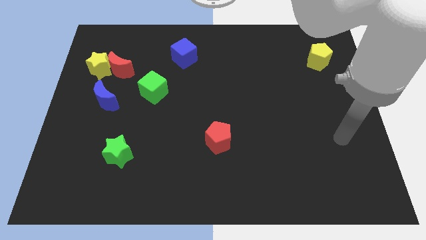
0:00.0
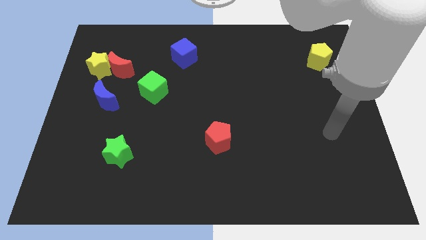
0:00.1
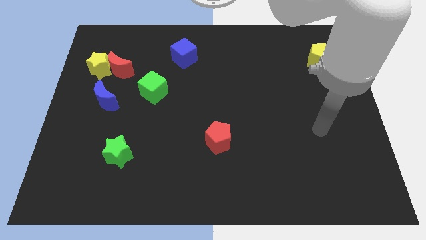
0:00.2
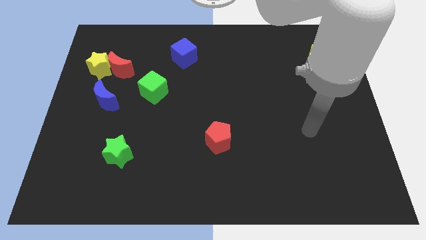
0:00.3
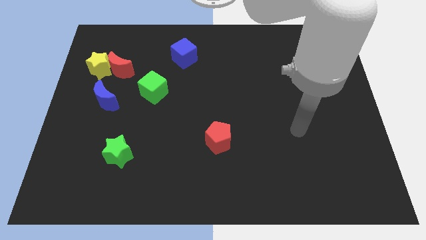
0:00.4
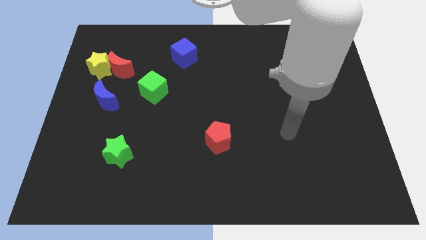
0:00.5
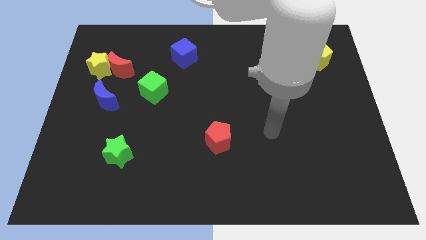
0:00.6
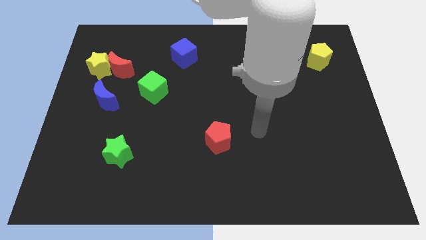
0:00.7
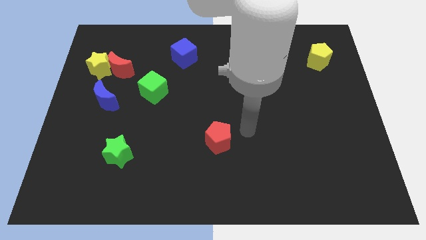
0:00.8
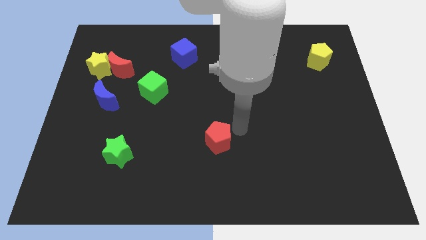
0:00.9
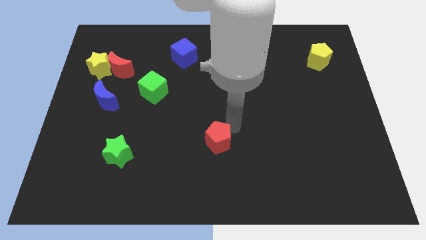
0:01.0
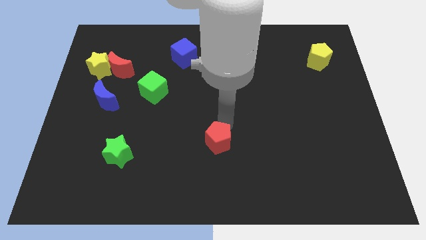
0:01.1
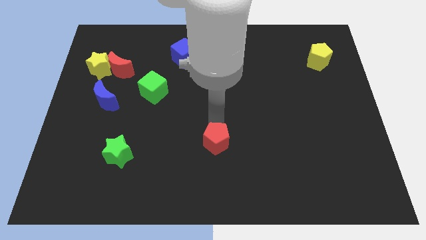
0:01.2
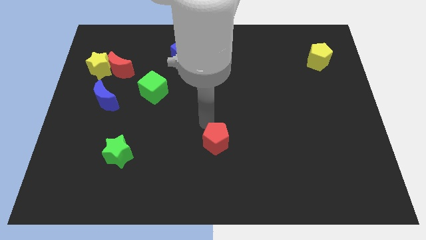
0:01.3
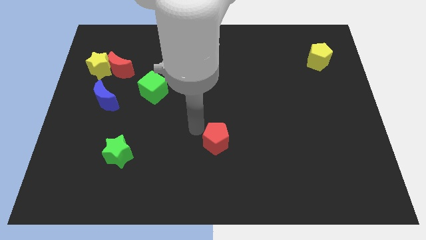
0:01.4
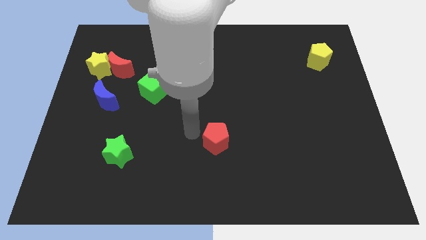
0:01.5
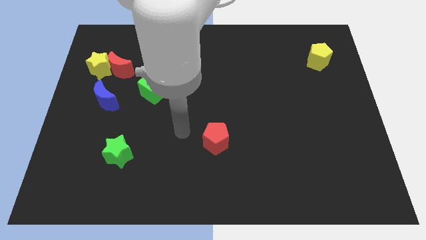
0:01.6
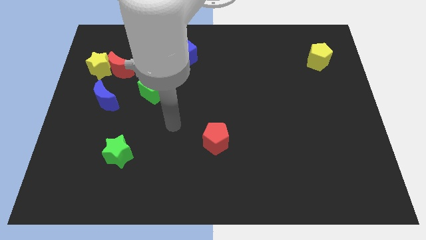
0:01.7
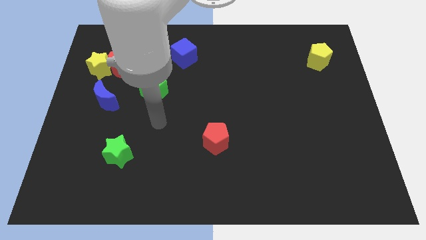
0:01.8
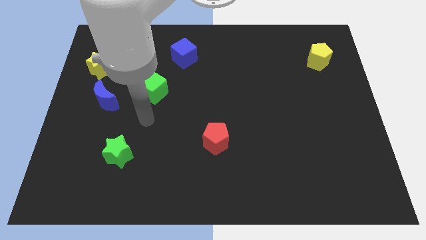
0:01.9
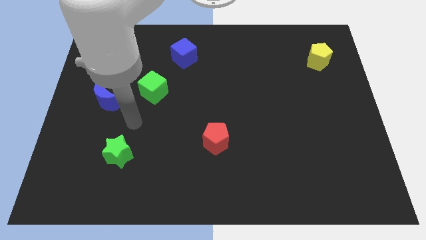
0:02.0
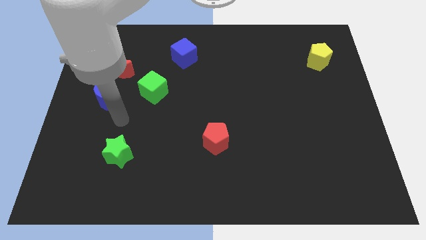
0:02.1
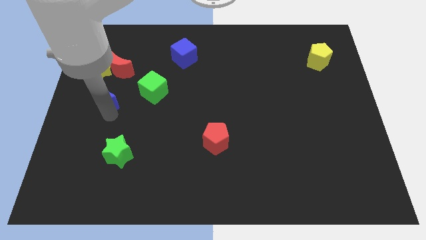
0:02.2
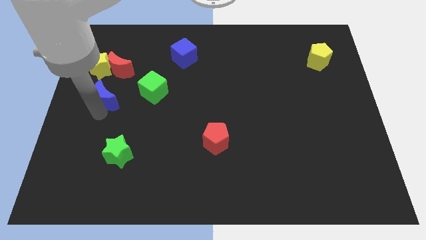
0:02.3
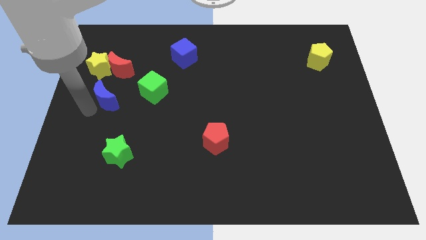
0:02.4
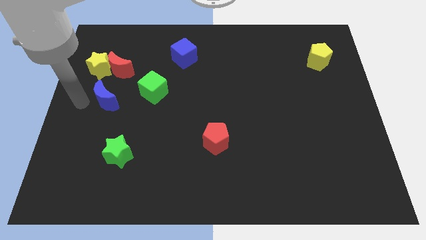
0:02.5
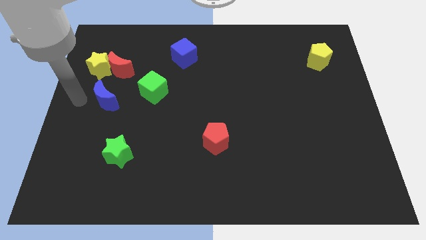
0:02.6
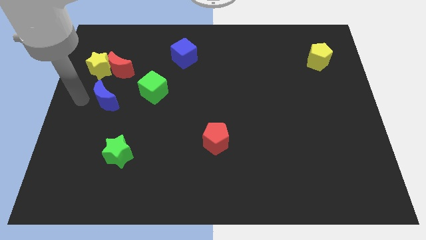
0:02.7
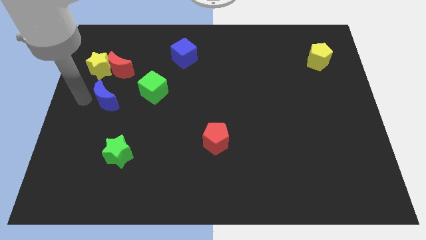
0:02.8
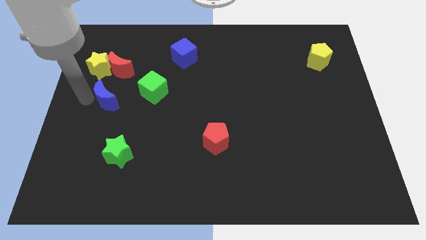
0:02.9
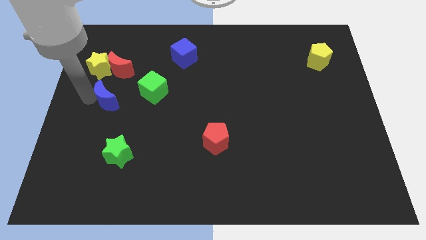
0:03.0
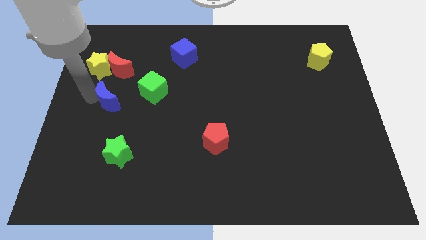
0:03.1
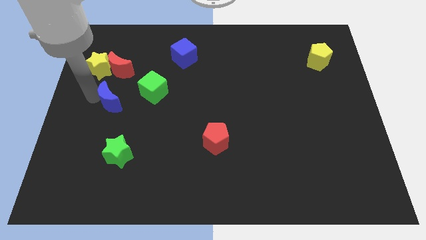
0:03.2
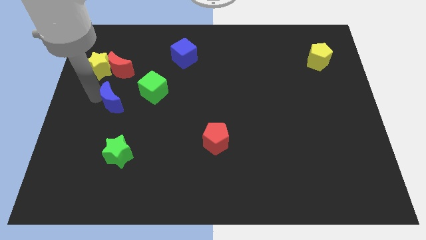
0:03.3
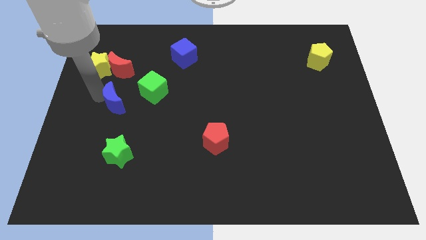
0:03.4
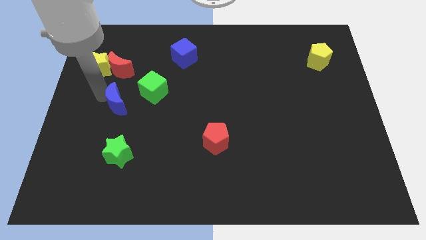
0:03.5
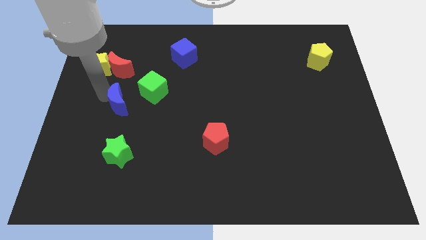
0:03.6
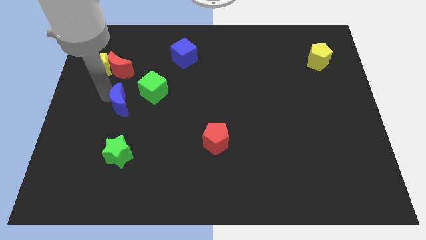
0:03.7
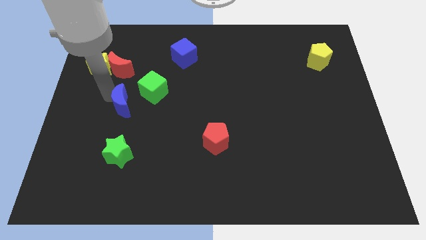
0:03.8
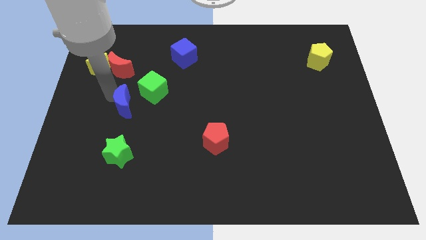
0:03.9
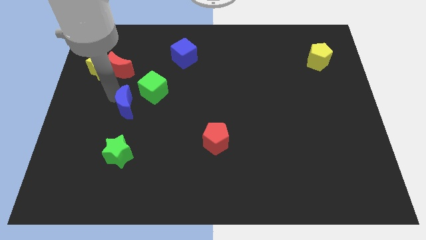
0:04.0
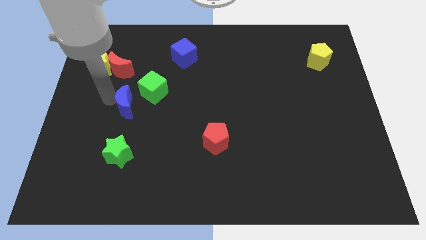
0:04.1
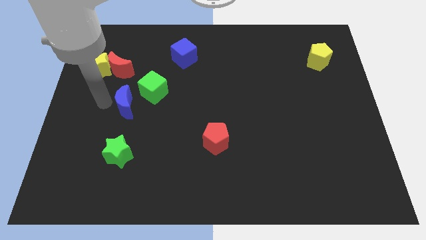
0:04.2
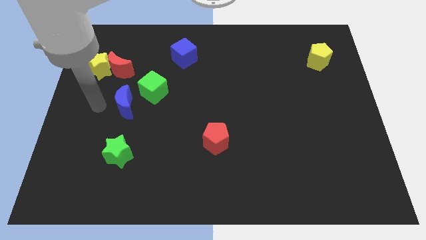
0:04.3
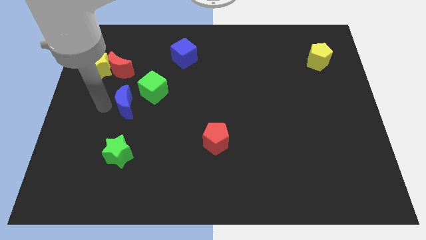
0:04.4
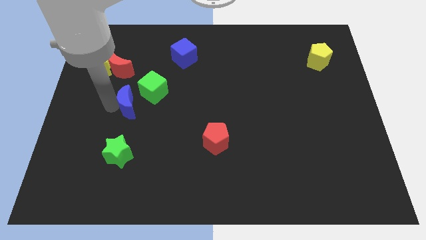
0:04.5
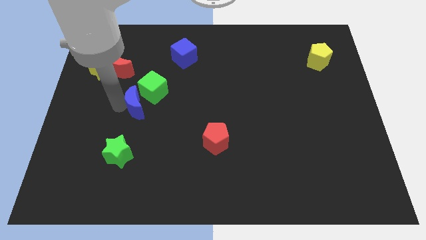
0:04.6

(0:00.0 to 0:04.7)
push the blue moon somewhat to the right

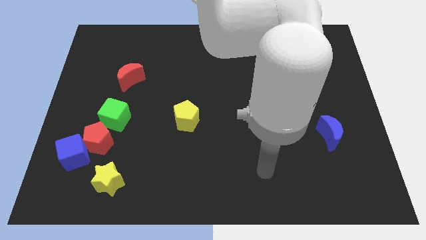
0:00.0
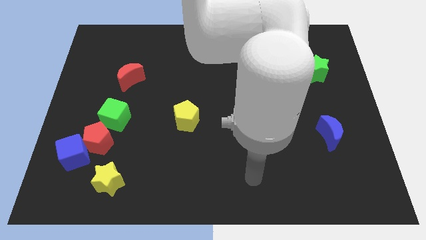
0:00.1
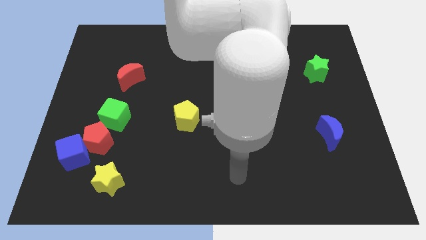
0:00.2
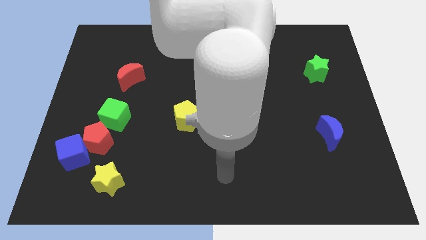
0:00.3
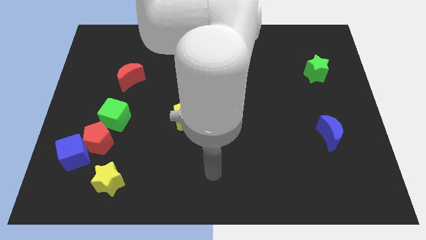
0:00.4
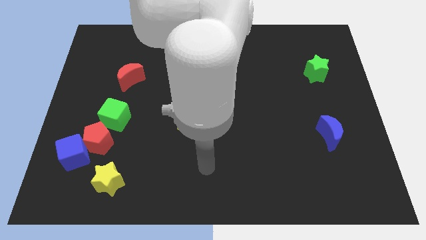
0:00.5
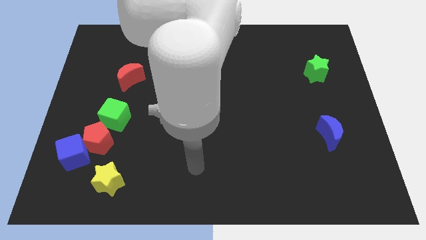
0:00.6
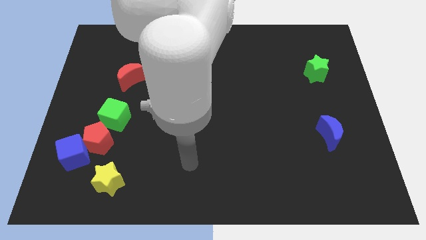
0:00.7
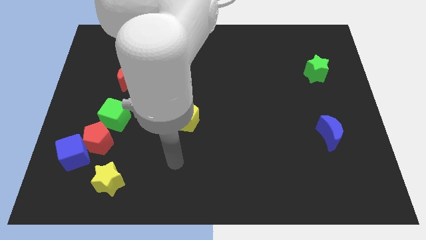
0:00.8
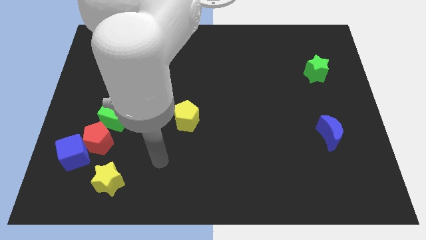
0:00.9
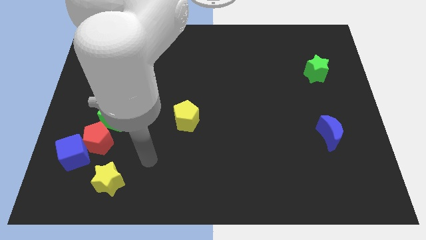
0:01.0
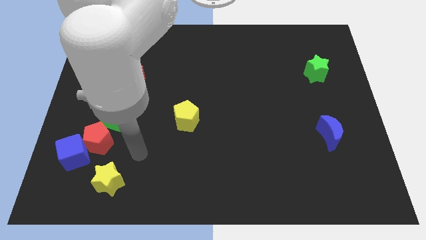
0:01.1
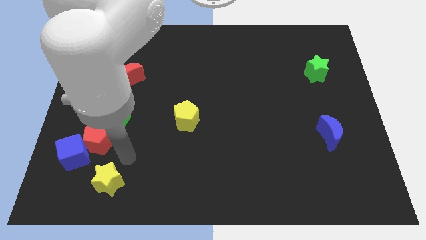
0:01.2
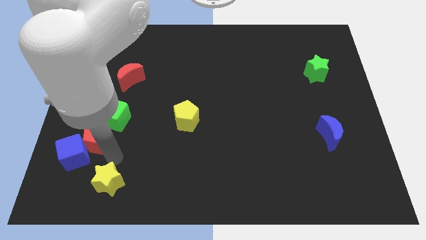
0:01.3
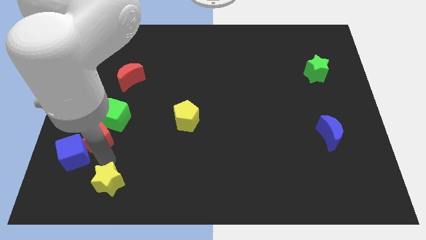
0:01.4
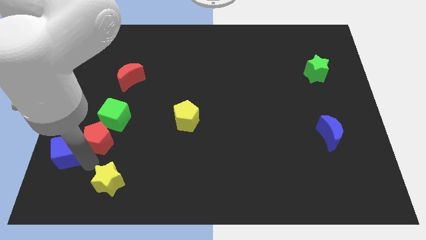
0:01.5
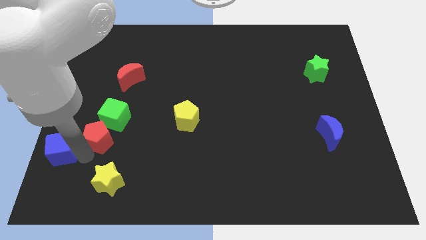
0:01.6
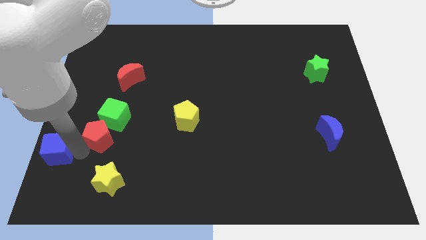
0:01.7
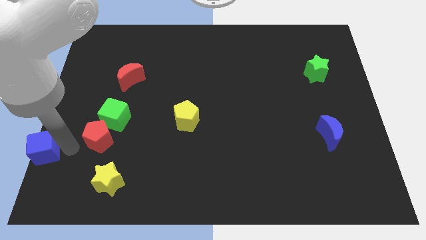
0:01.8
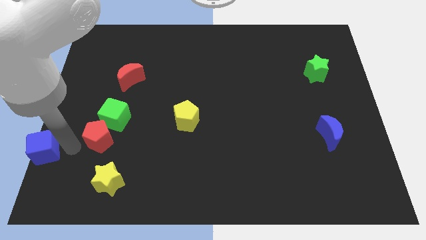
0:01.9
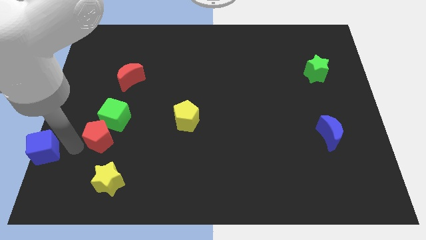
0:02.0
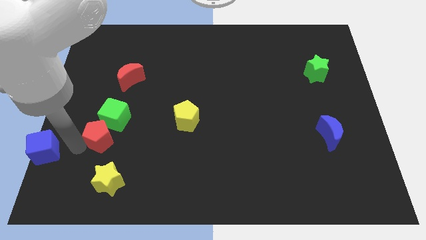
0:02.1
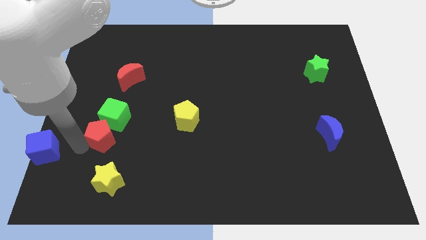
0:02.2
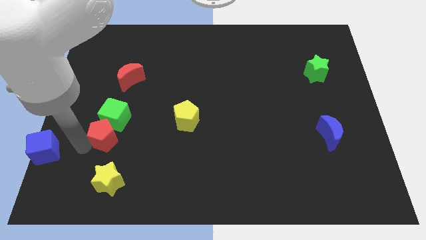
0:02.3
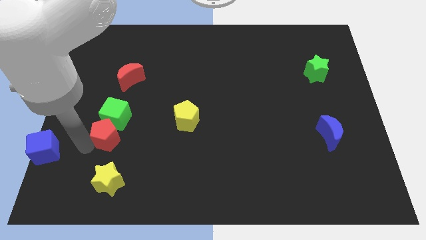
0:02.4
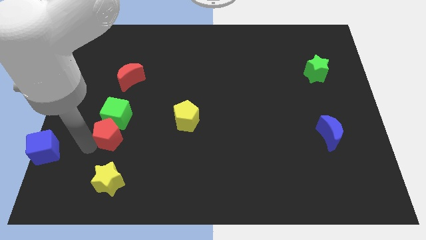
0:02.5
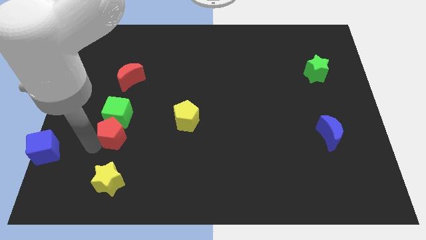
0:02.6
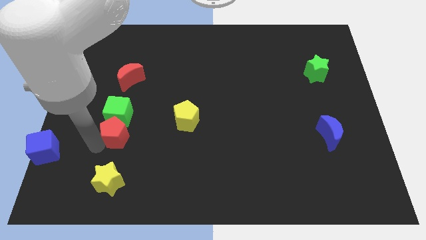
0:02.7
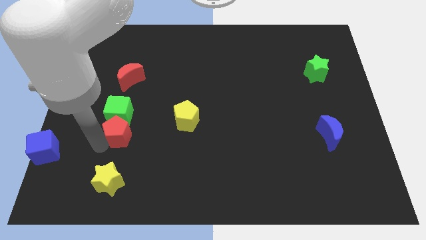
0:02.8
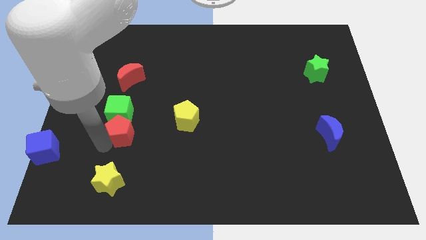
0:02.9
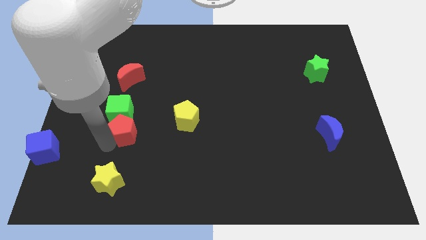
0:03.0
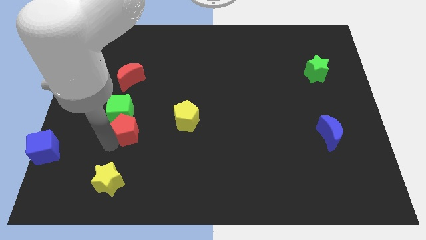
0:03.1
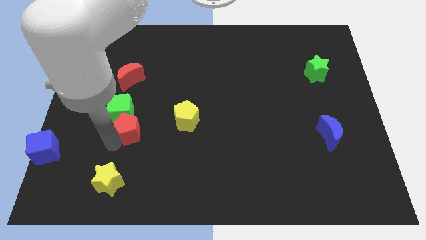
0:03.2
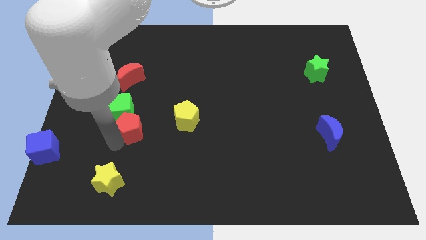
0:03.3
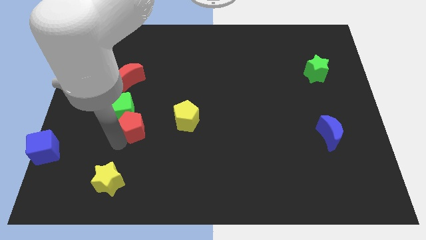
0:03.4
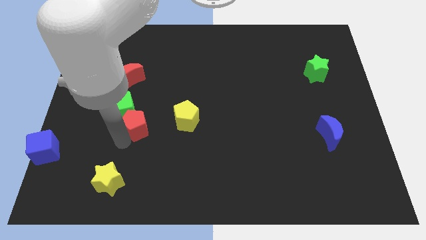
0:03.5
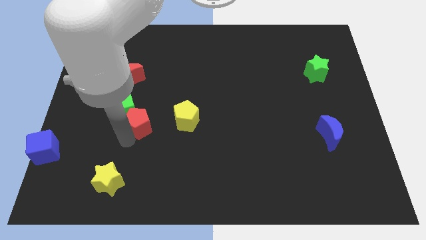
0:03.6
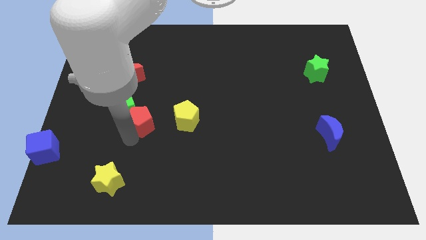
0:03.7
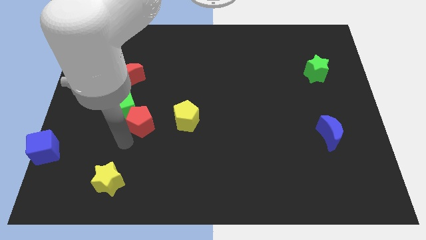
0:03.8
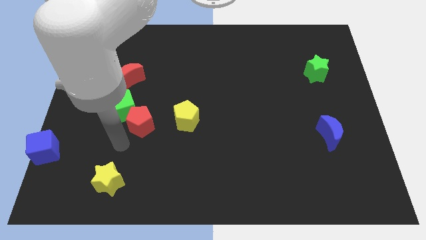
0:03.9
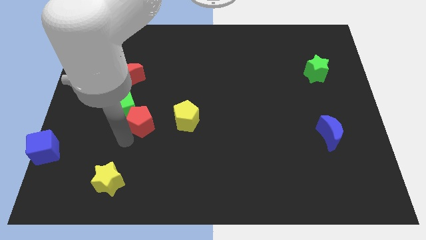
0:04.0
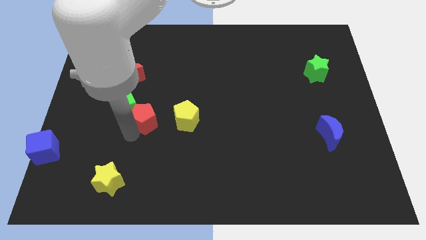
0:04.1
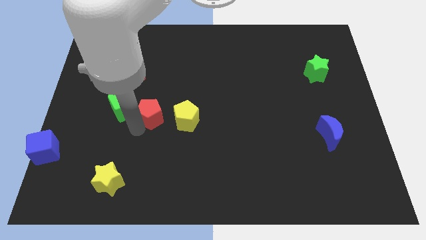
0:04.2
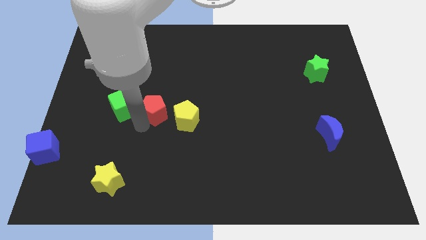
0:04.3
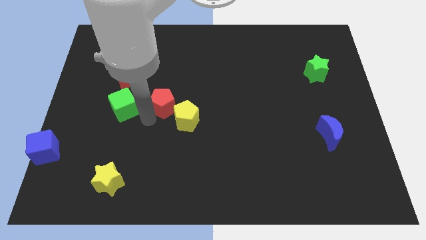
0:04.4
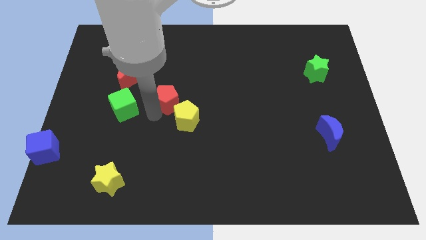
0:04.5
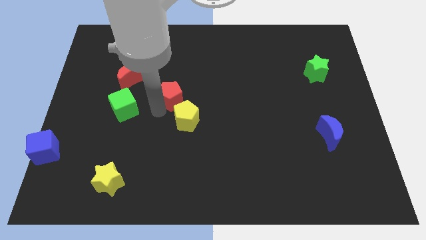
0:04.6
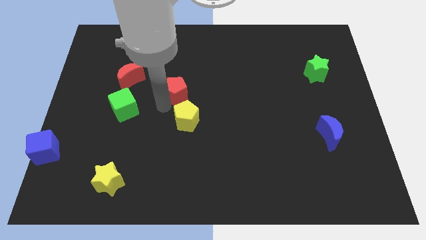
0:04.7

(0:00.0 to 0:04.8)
move the red pentagon up and right
